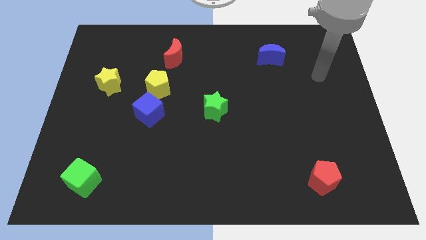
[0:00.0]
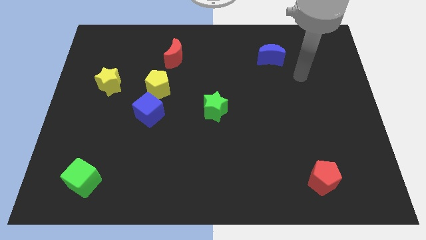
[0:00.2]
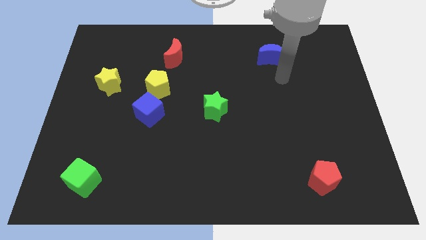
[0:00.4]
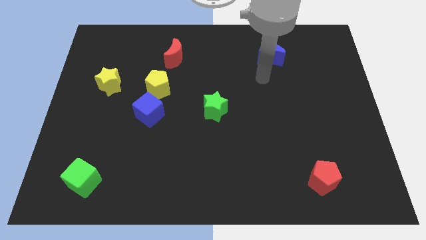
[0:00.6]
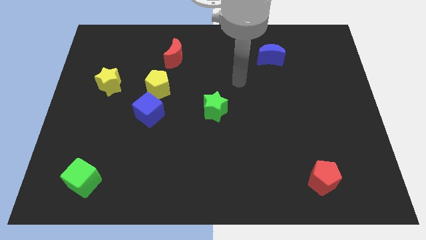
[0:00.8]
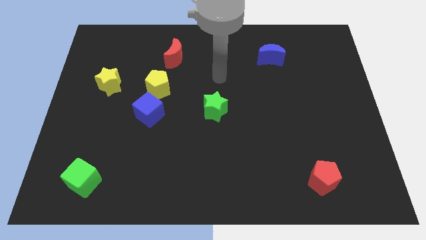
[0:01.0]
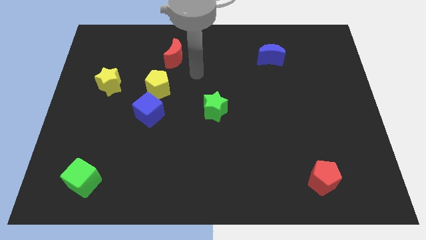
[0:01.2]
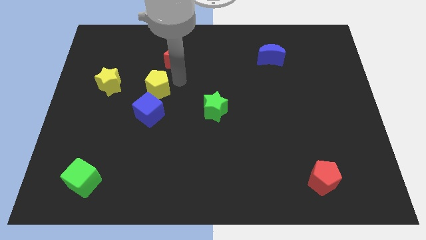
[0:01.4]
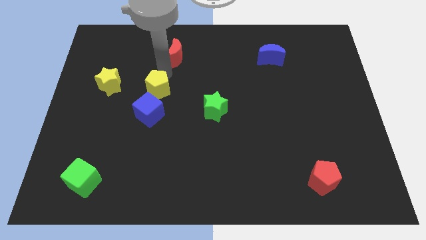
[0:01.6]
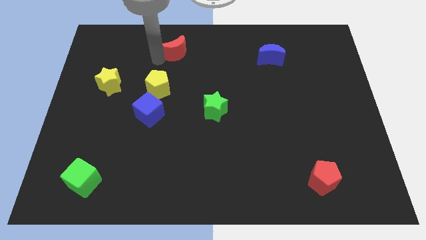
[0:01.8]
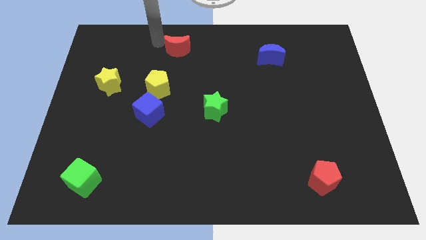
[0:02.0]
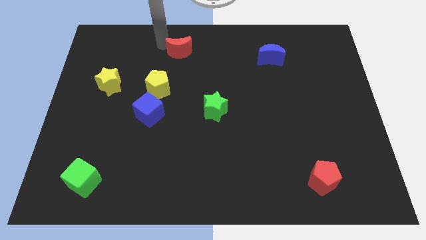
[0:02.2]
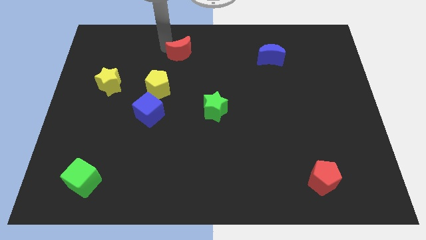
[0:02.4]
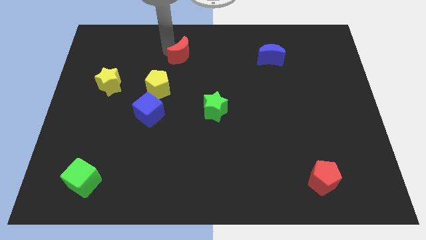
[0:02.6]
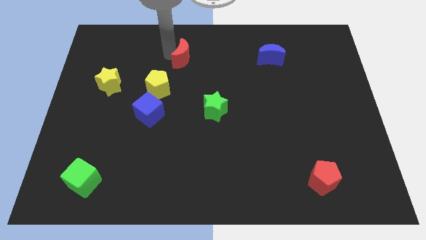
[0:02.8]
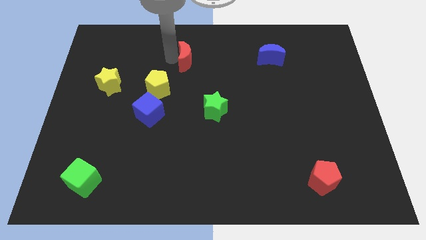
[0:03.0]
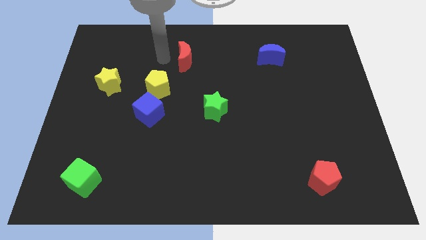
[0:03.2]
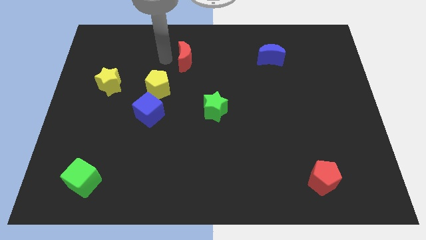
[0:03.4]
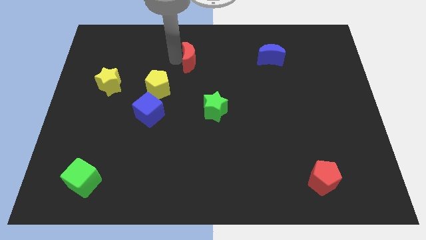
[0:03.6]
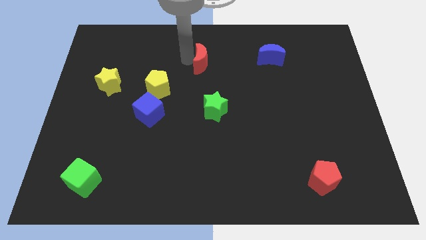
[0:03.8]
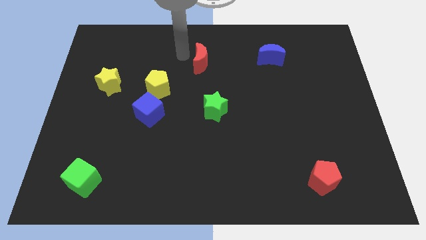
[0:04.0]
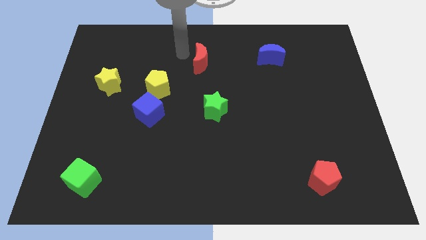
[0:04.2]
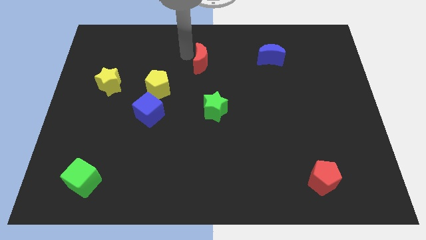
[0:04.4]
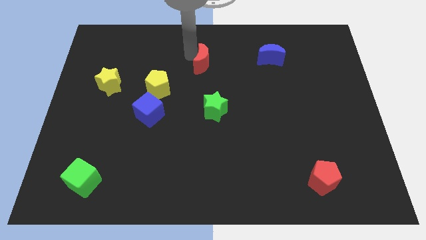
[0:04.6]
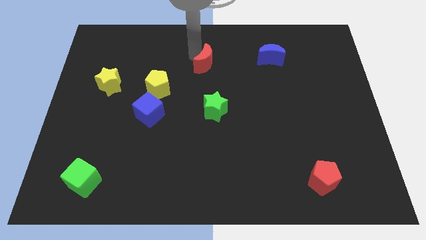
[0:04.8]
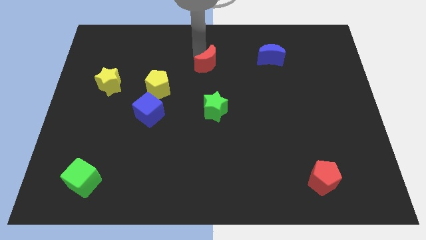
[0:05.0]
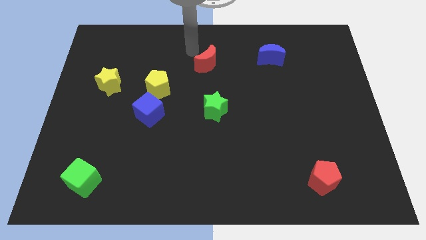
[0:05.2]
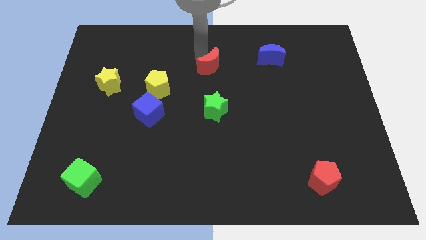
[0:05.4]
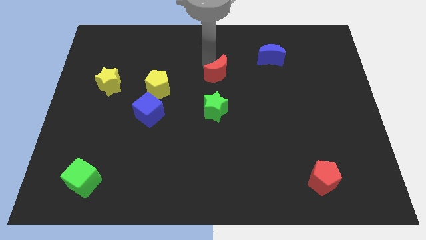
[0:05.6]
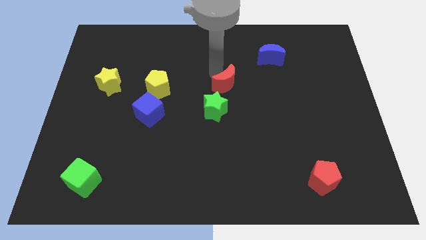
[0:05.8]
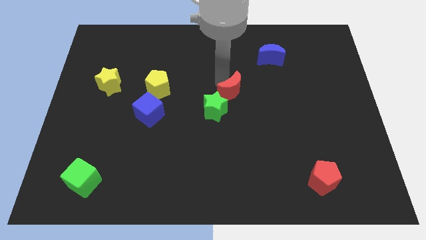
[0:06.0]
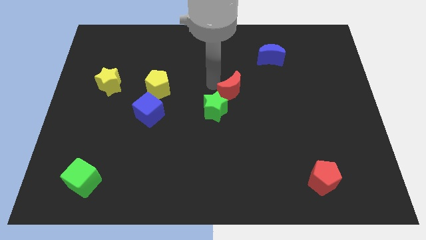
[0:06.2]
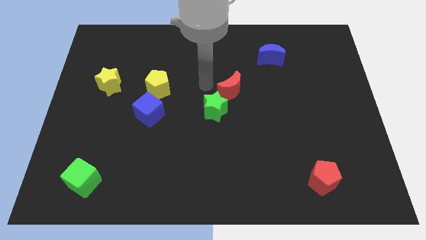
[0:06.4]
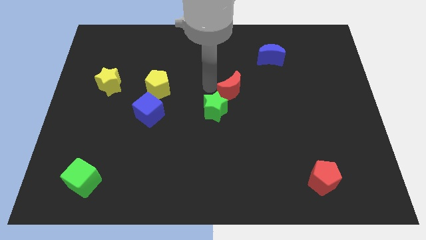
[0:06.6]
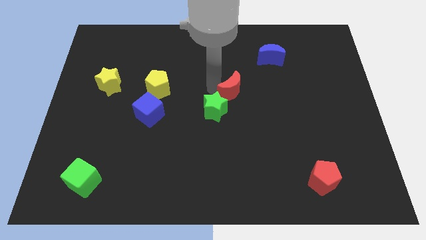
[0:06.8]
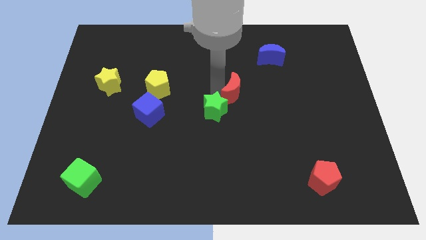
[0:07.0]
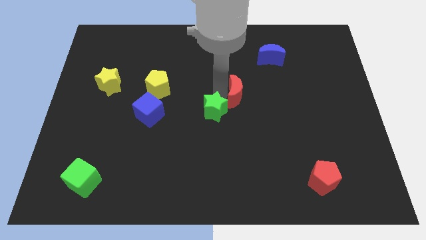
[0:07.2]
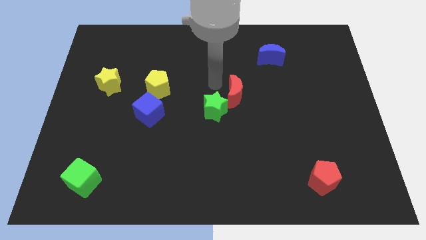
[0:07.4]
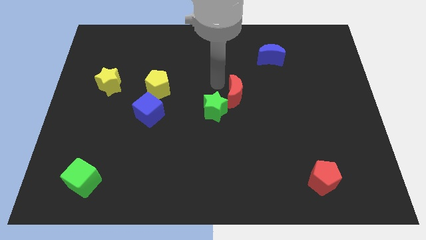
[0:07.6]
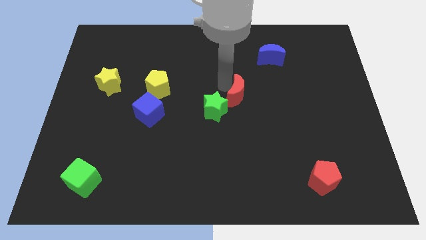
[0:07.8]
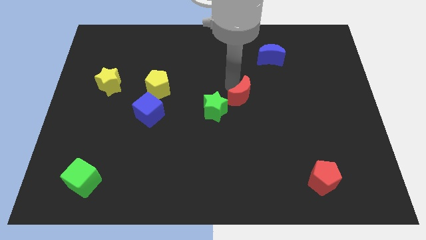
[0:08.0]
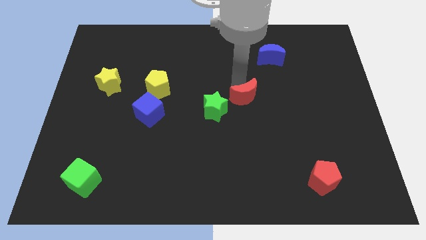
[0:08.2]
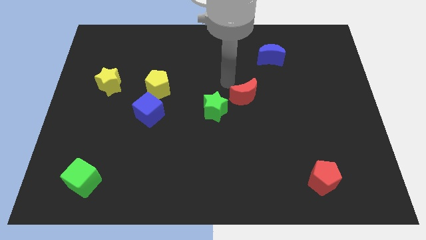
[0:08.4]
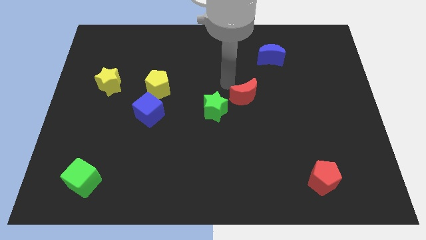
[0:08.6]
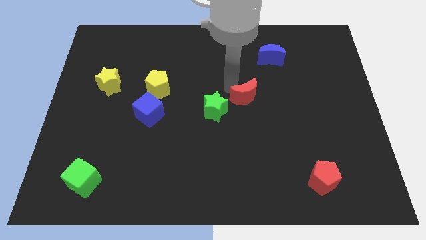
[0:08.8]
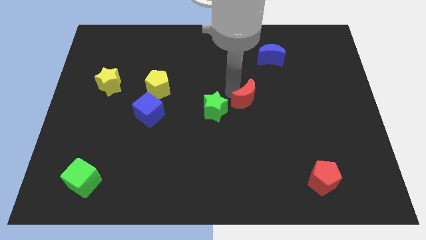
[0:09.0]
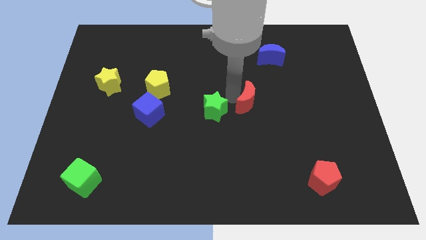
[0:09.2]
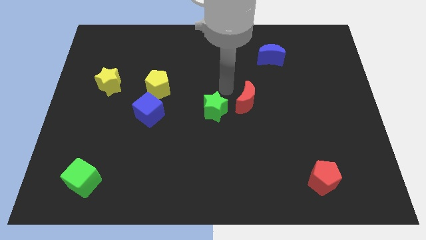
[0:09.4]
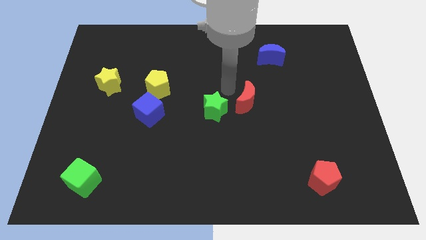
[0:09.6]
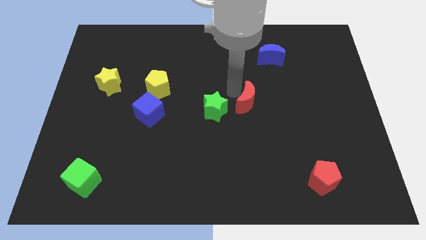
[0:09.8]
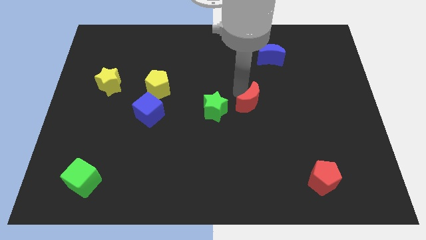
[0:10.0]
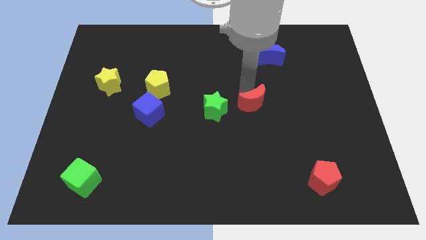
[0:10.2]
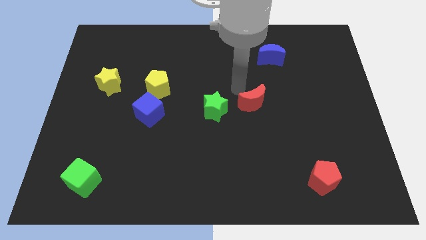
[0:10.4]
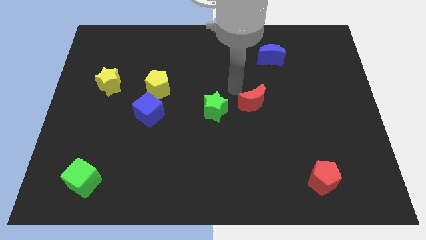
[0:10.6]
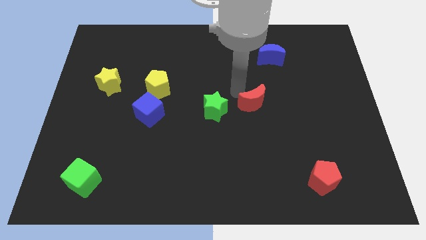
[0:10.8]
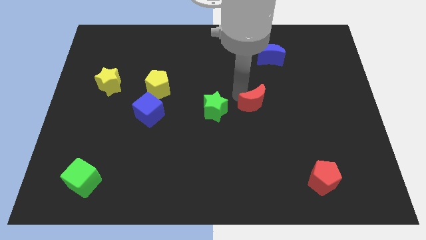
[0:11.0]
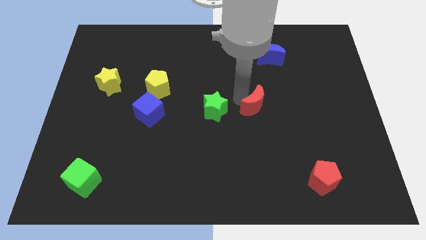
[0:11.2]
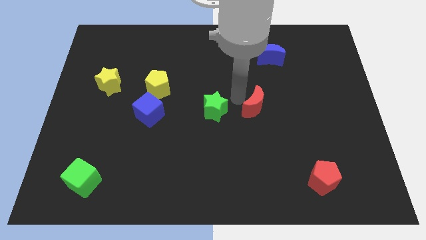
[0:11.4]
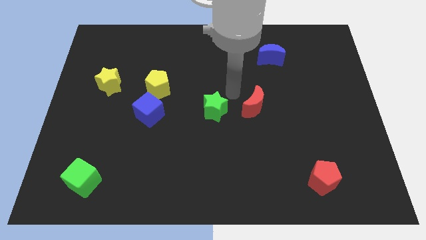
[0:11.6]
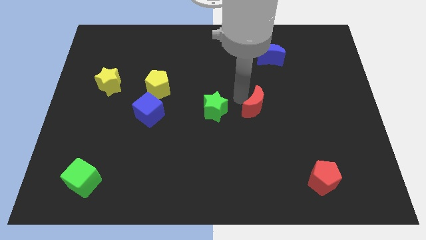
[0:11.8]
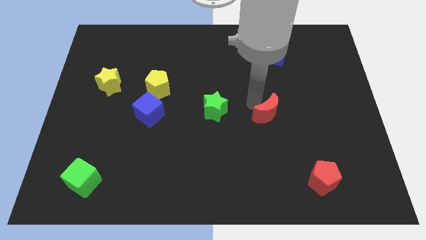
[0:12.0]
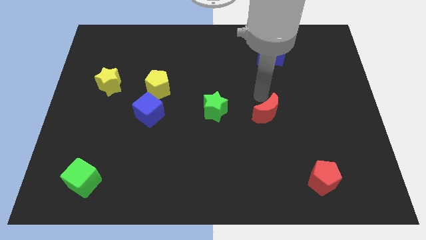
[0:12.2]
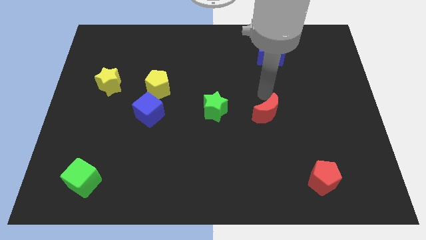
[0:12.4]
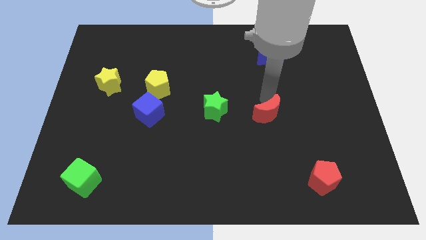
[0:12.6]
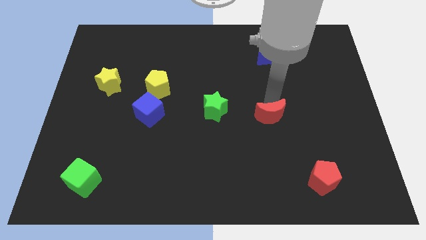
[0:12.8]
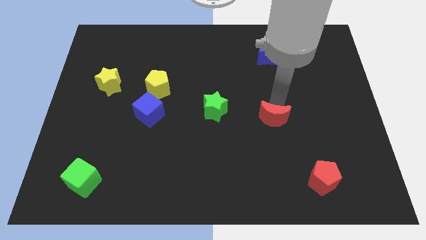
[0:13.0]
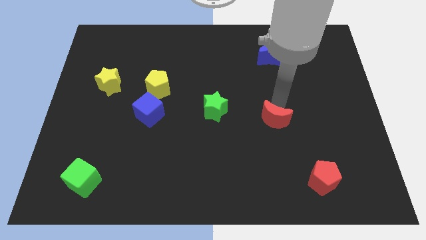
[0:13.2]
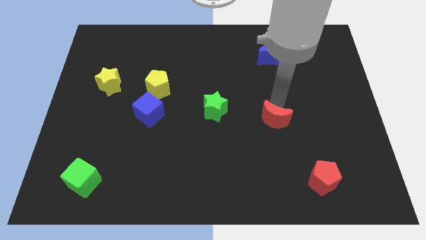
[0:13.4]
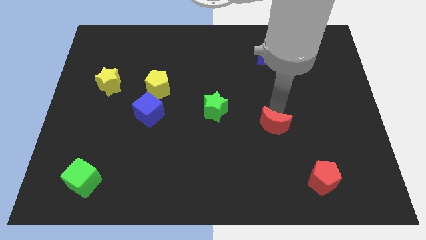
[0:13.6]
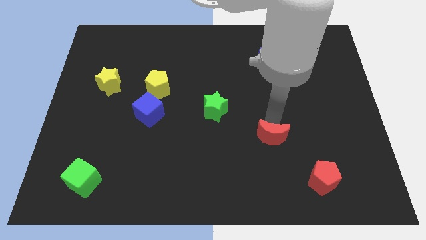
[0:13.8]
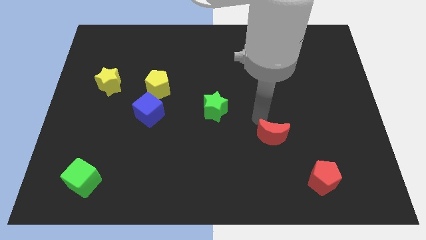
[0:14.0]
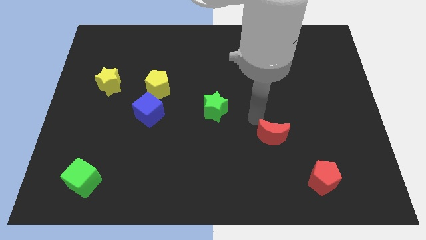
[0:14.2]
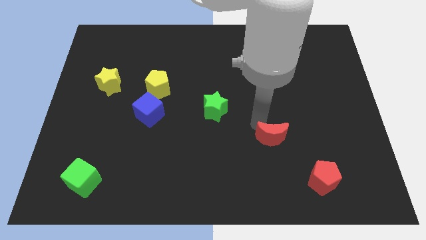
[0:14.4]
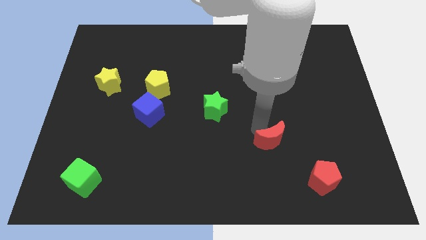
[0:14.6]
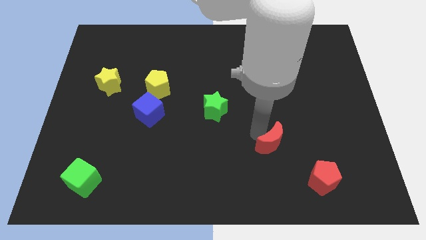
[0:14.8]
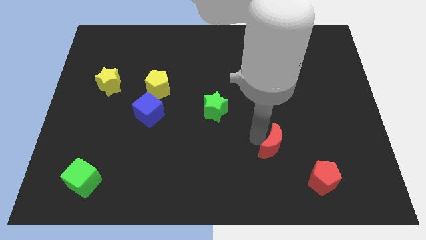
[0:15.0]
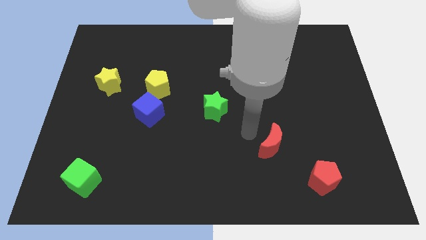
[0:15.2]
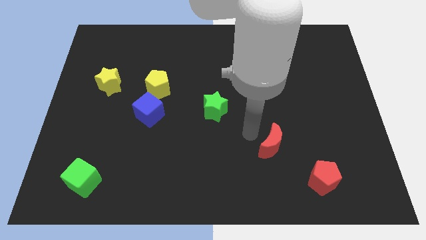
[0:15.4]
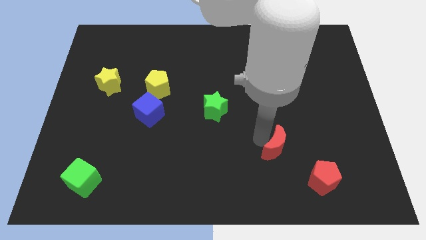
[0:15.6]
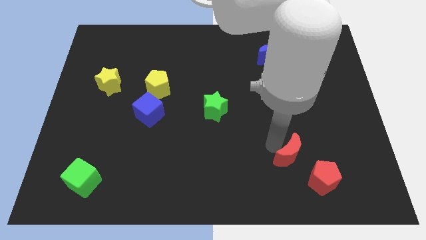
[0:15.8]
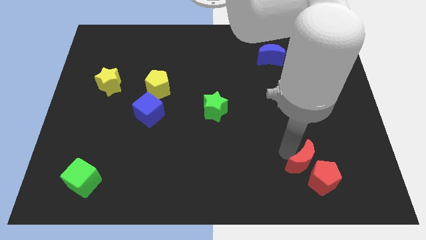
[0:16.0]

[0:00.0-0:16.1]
move the red moon next to the red pentagon
